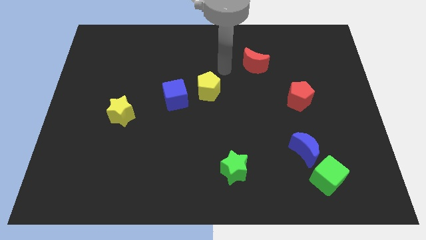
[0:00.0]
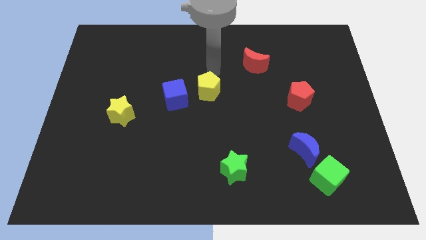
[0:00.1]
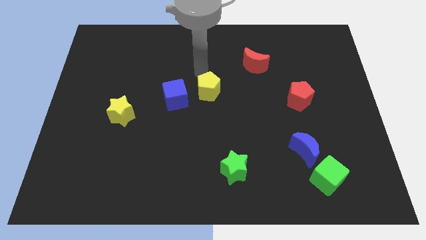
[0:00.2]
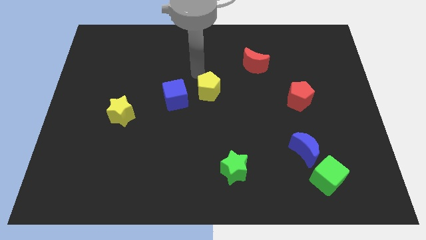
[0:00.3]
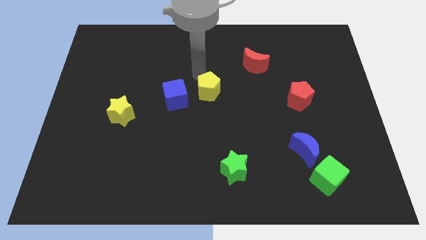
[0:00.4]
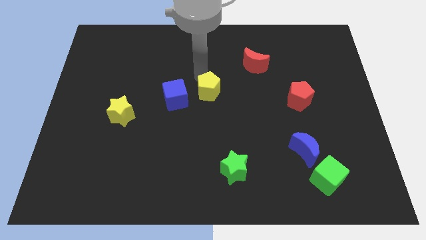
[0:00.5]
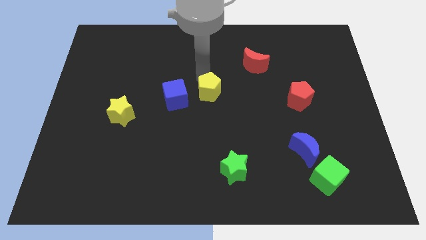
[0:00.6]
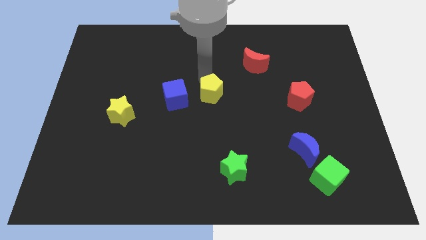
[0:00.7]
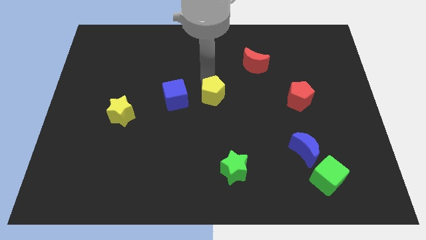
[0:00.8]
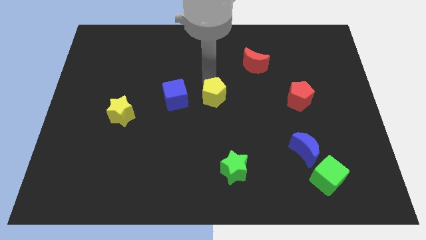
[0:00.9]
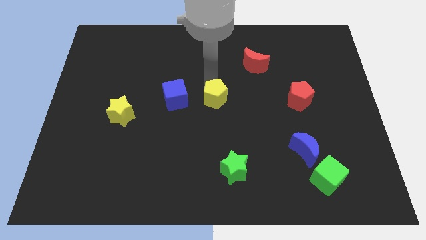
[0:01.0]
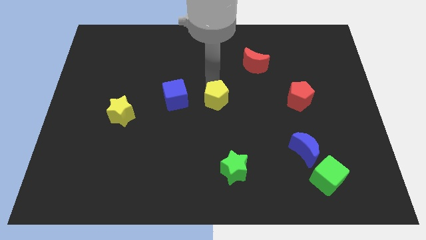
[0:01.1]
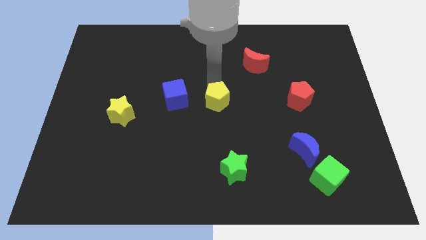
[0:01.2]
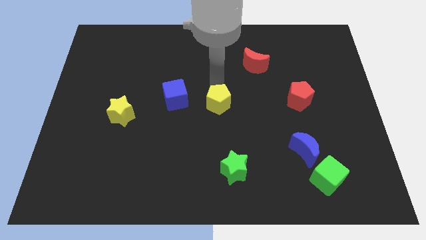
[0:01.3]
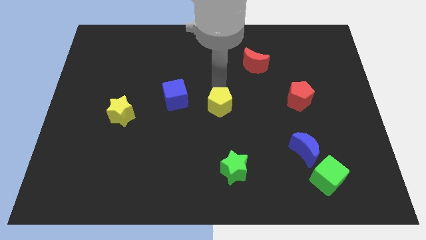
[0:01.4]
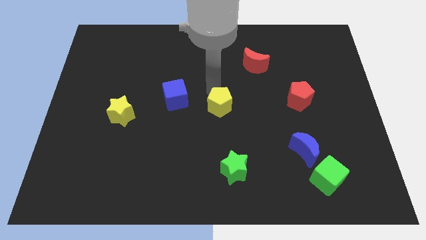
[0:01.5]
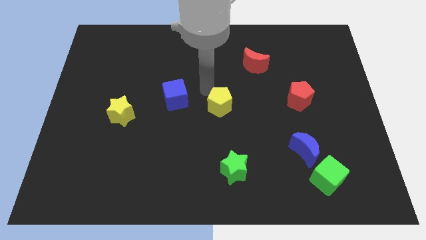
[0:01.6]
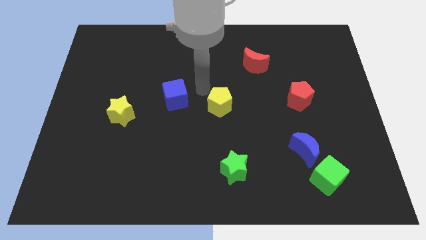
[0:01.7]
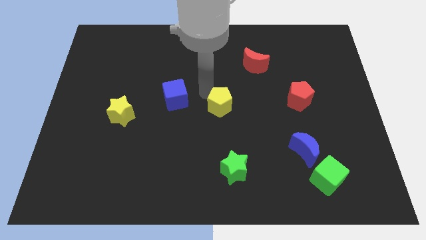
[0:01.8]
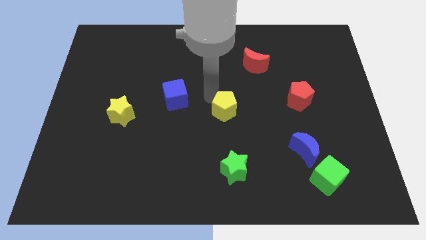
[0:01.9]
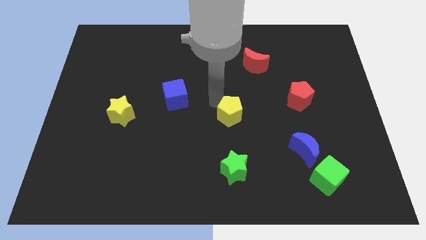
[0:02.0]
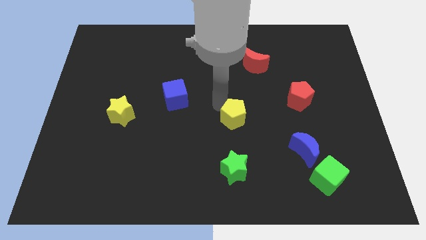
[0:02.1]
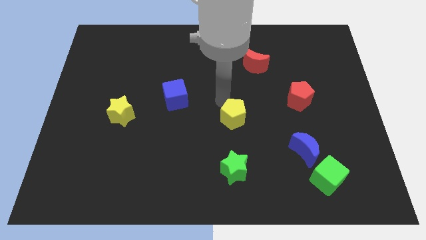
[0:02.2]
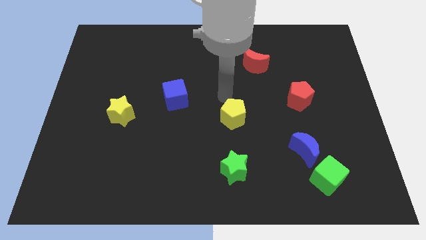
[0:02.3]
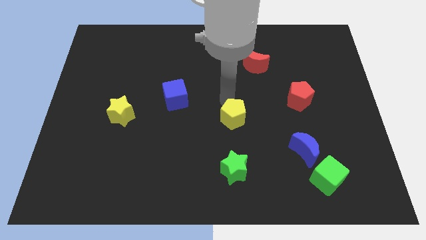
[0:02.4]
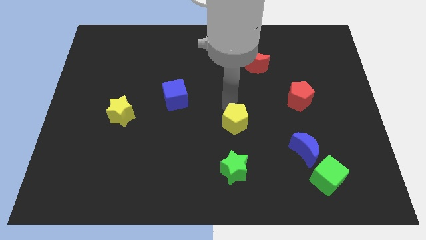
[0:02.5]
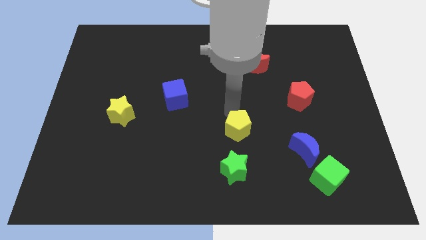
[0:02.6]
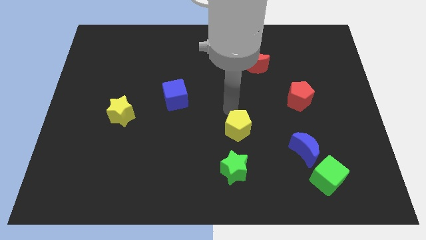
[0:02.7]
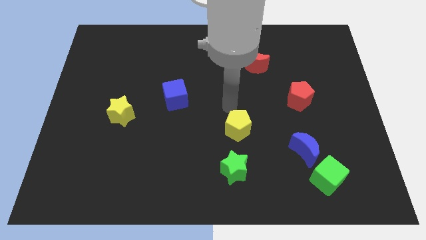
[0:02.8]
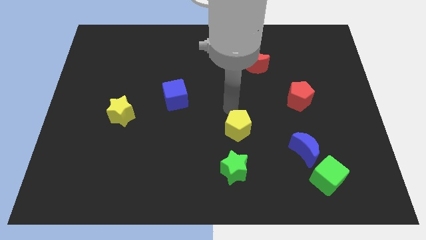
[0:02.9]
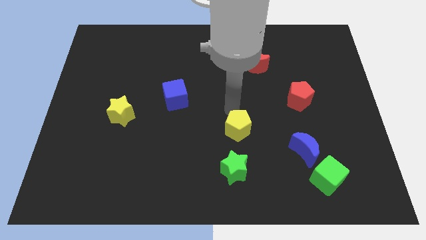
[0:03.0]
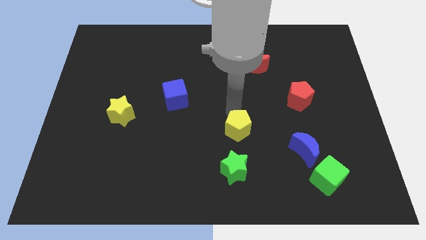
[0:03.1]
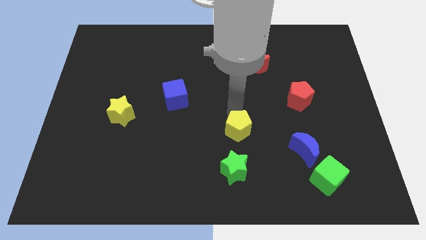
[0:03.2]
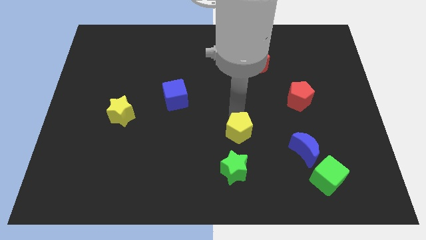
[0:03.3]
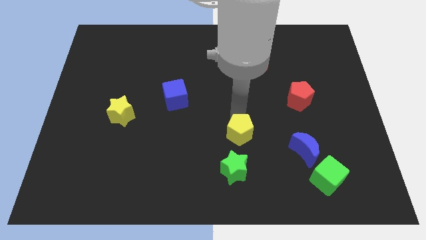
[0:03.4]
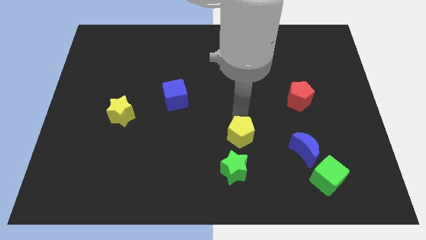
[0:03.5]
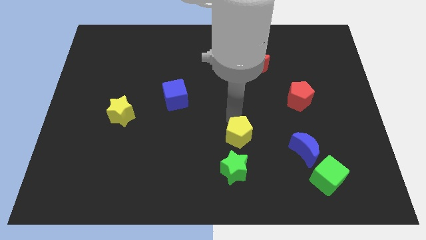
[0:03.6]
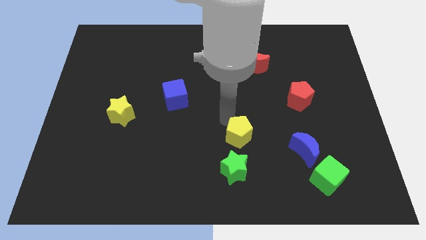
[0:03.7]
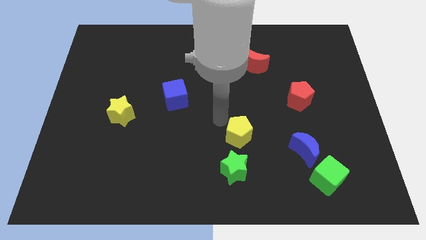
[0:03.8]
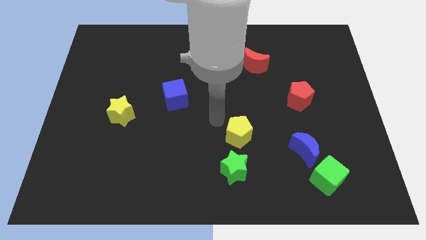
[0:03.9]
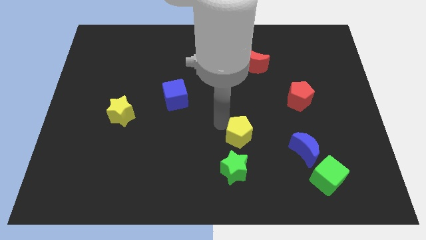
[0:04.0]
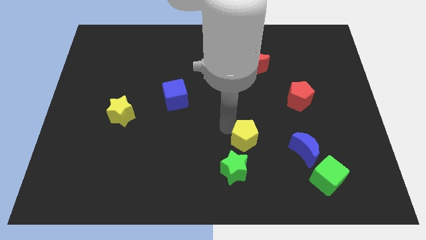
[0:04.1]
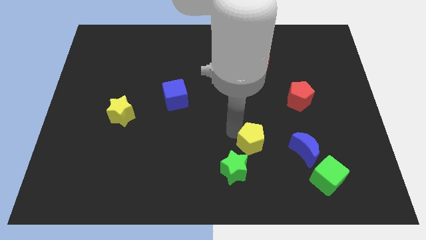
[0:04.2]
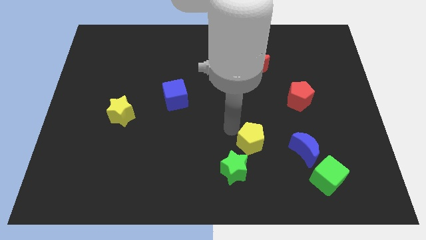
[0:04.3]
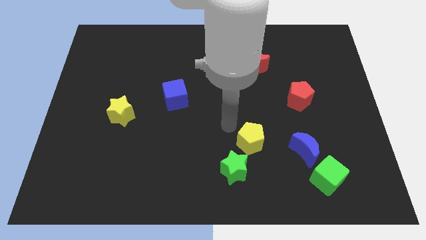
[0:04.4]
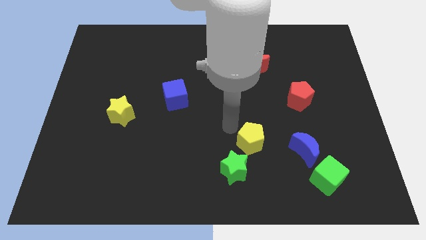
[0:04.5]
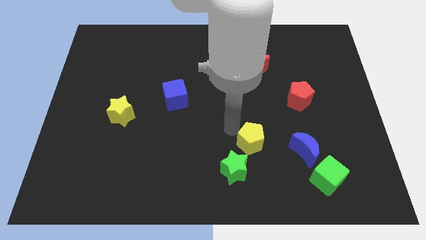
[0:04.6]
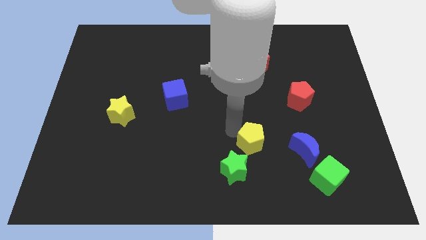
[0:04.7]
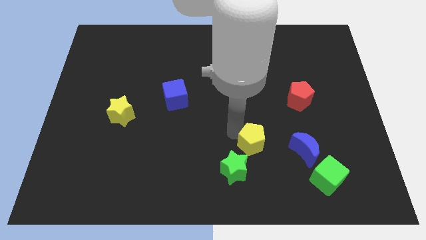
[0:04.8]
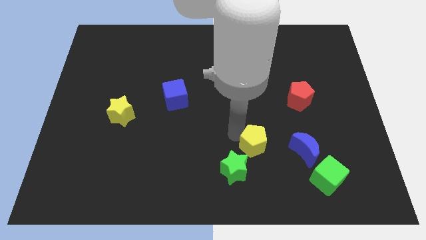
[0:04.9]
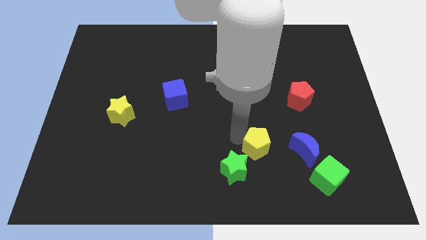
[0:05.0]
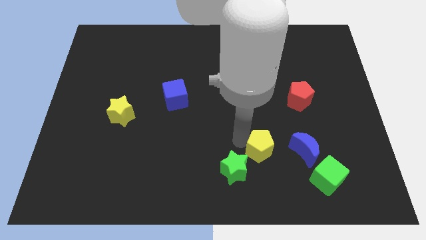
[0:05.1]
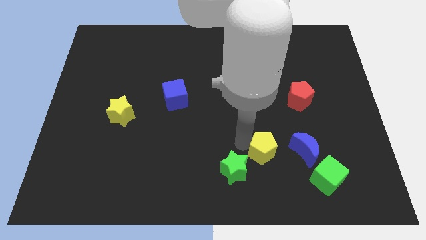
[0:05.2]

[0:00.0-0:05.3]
push the yellow pentagon right of the green star
